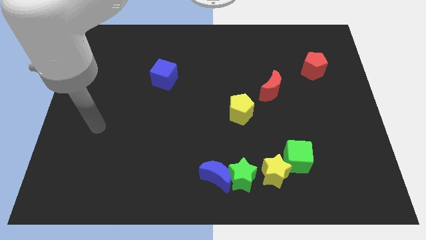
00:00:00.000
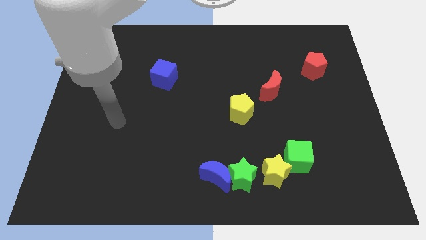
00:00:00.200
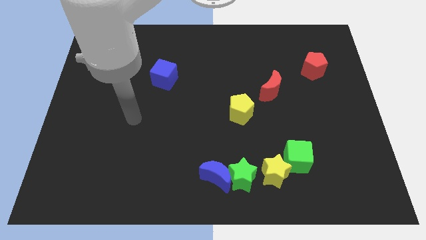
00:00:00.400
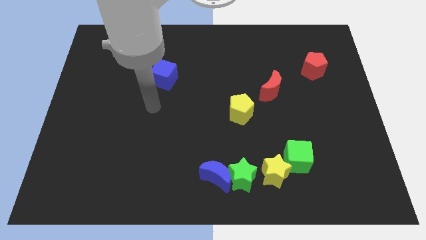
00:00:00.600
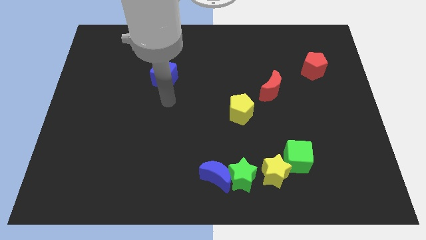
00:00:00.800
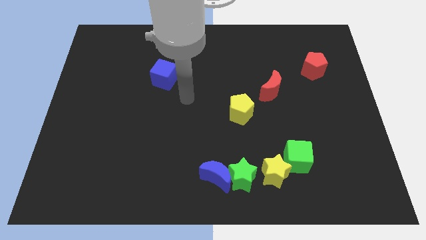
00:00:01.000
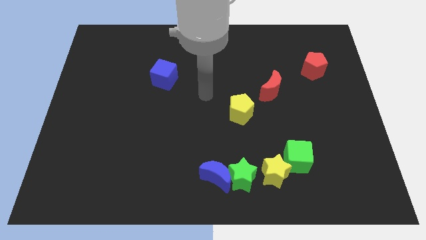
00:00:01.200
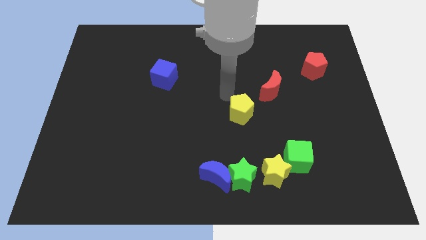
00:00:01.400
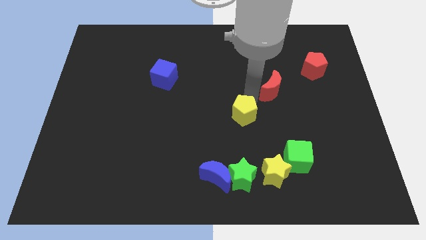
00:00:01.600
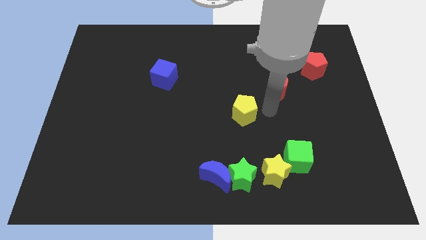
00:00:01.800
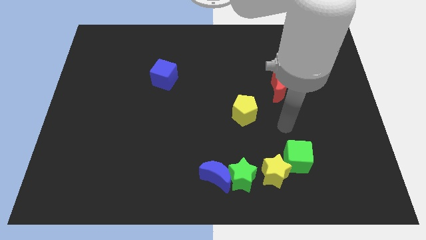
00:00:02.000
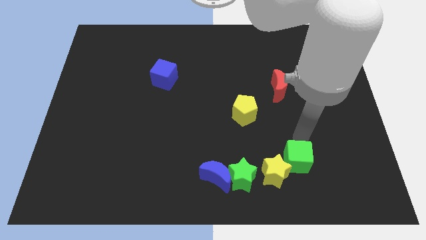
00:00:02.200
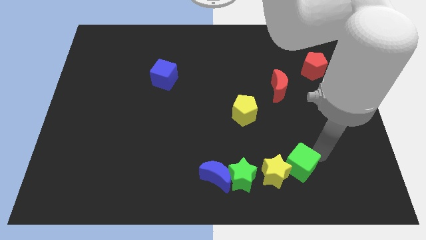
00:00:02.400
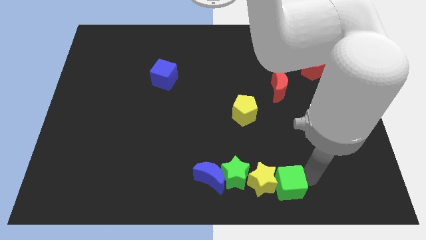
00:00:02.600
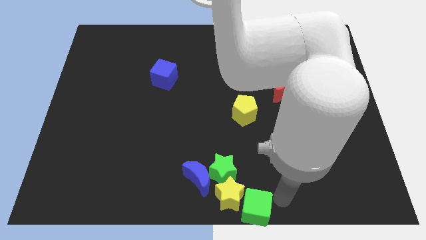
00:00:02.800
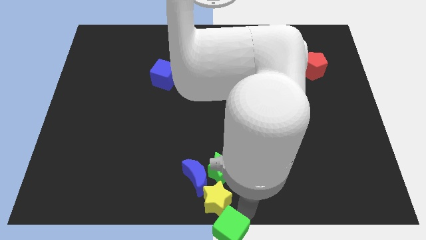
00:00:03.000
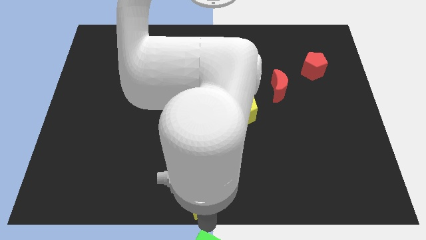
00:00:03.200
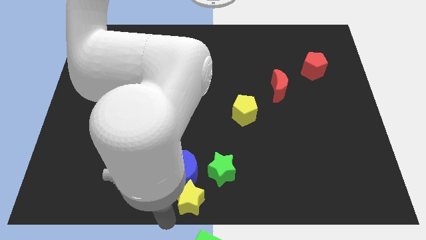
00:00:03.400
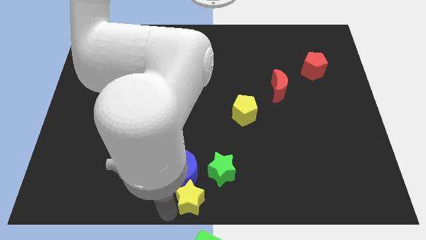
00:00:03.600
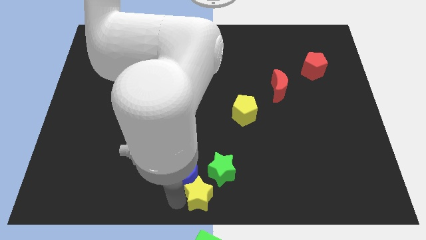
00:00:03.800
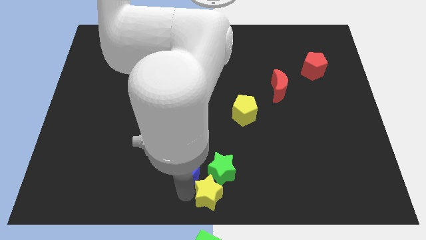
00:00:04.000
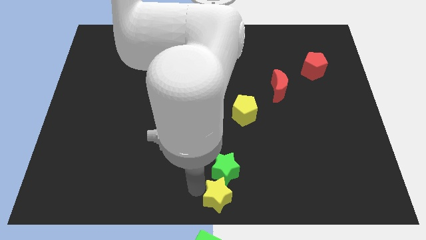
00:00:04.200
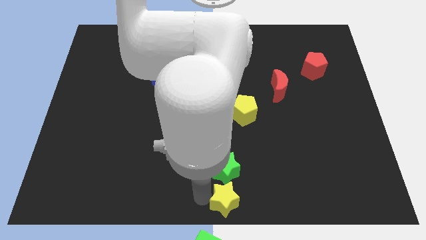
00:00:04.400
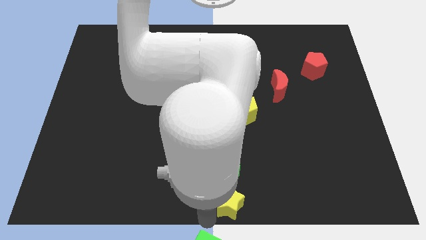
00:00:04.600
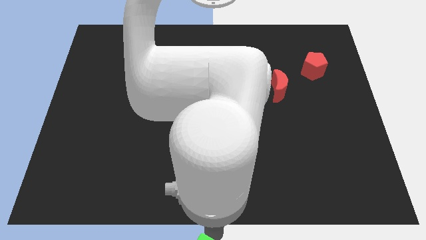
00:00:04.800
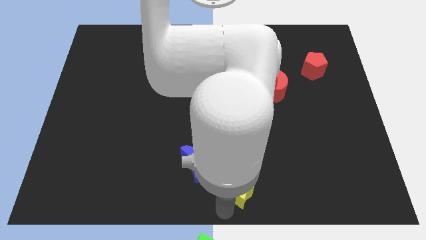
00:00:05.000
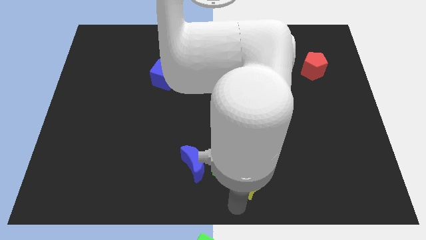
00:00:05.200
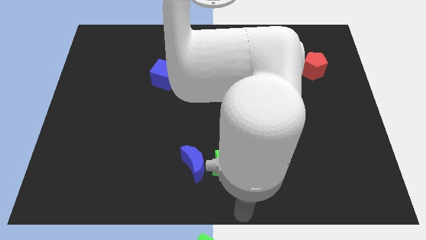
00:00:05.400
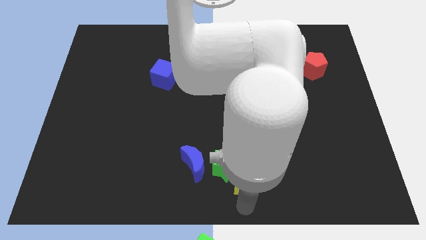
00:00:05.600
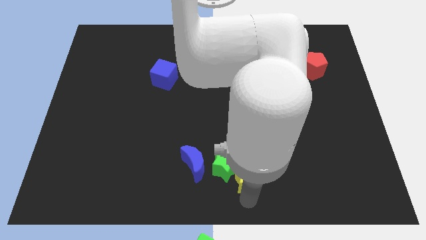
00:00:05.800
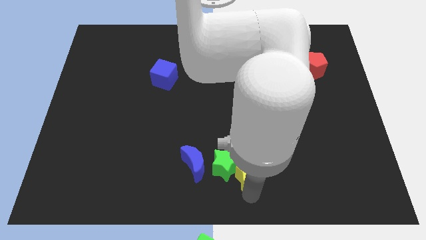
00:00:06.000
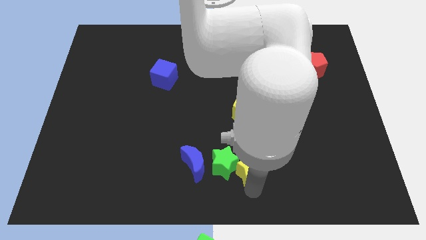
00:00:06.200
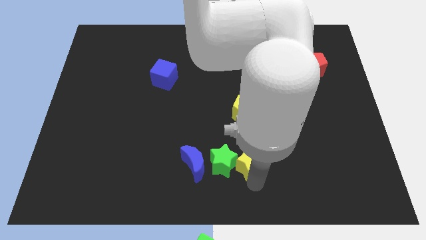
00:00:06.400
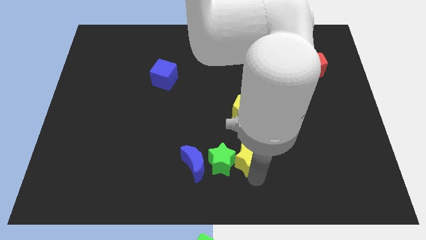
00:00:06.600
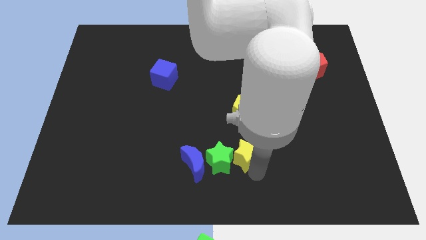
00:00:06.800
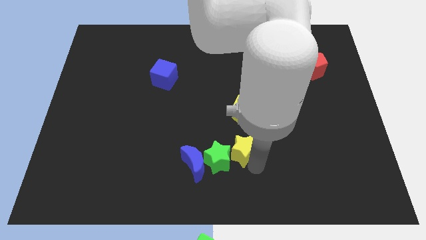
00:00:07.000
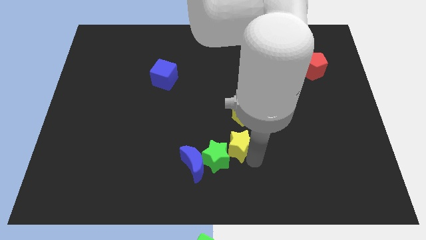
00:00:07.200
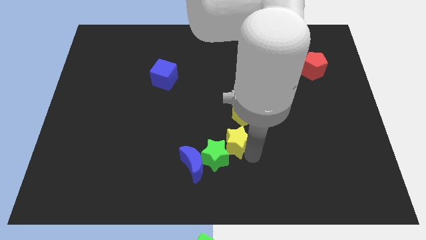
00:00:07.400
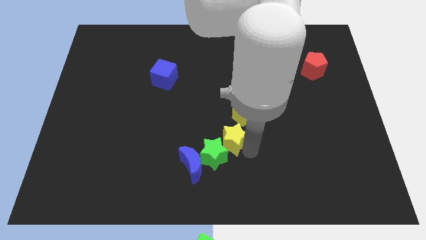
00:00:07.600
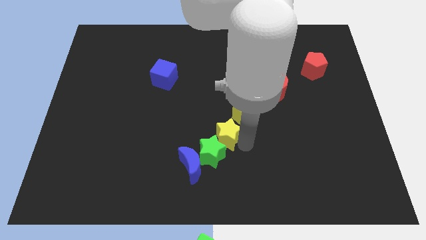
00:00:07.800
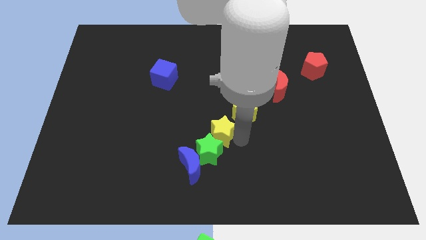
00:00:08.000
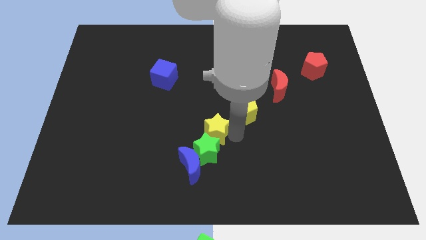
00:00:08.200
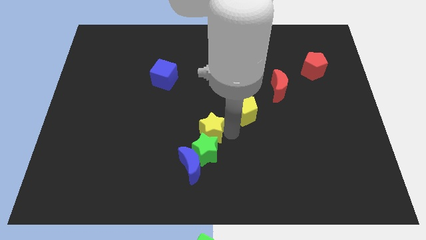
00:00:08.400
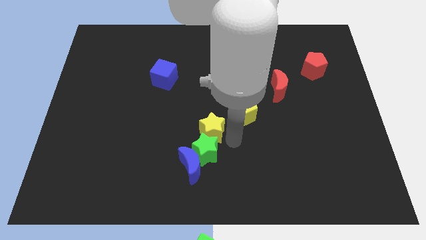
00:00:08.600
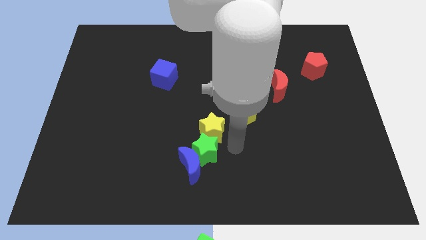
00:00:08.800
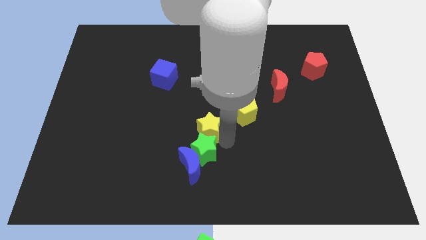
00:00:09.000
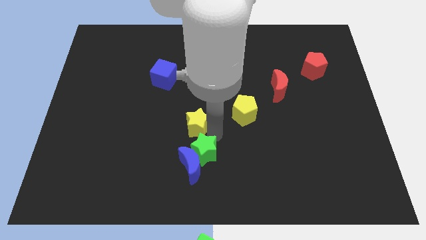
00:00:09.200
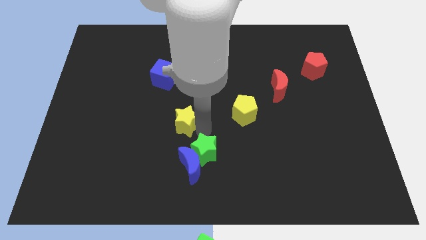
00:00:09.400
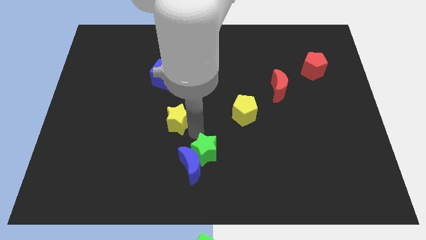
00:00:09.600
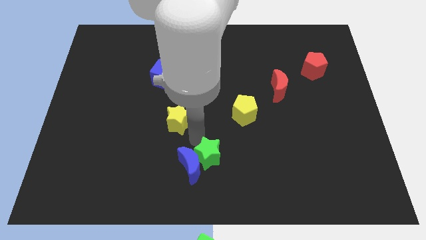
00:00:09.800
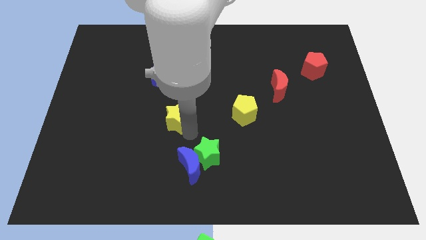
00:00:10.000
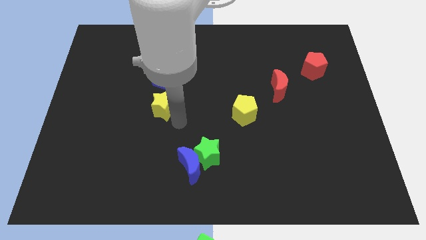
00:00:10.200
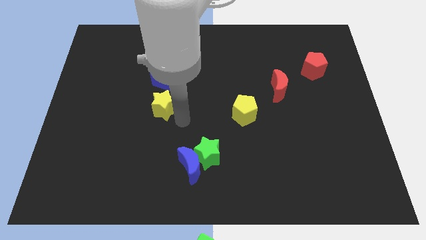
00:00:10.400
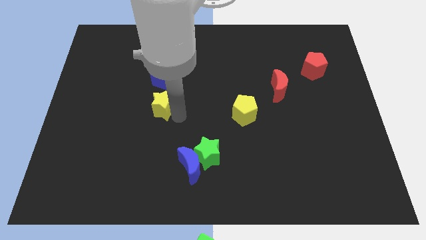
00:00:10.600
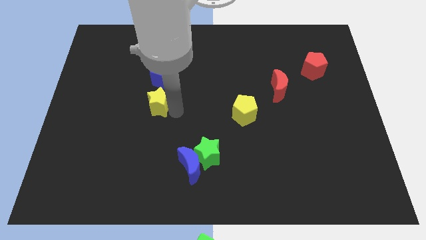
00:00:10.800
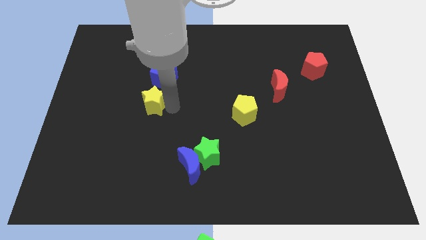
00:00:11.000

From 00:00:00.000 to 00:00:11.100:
move the yellow star to the bottom left of the blue cube
